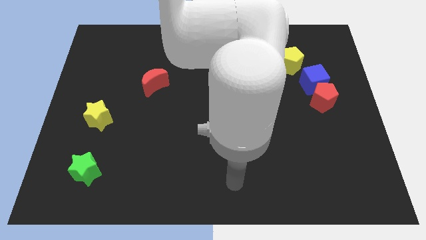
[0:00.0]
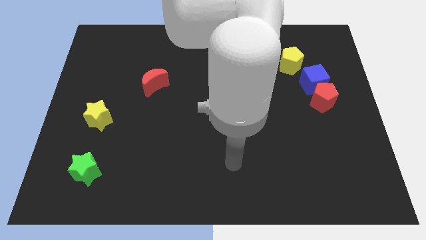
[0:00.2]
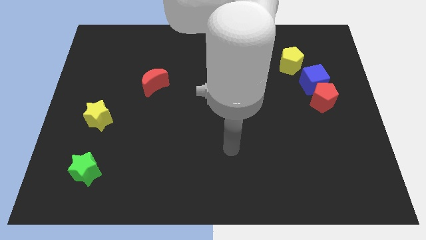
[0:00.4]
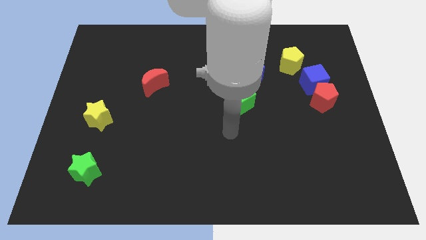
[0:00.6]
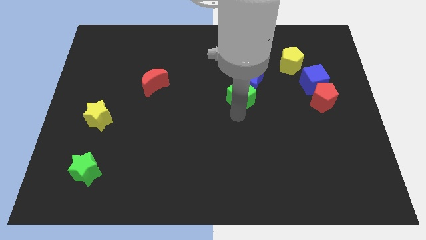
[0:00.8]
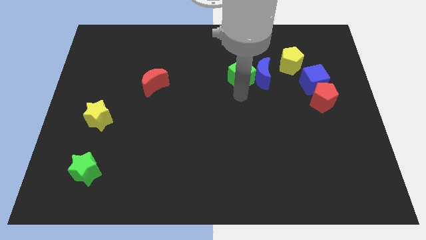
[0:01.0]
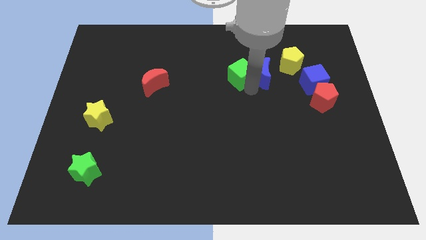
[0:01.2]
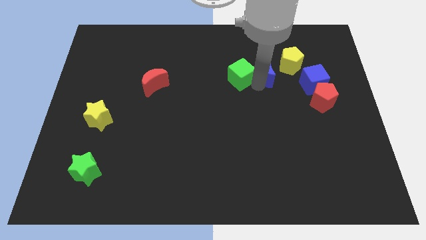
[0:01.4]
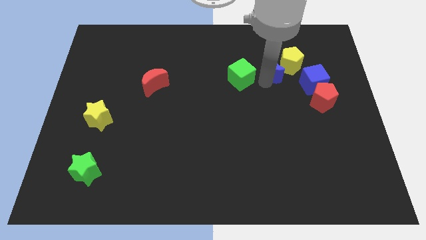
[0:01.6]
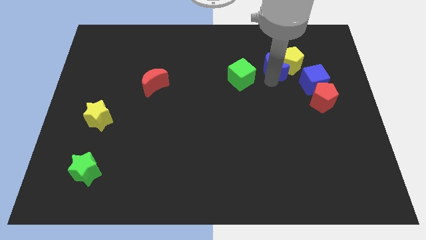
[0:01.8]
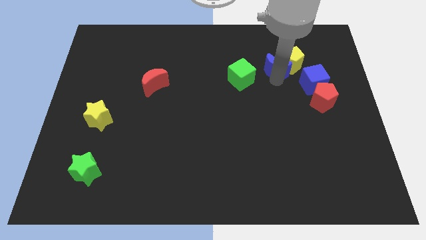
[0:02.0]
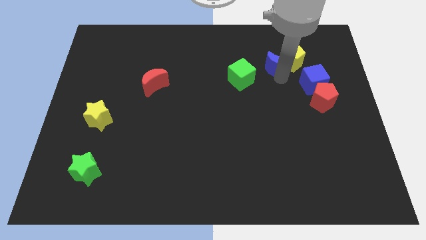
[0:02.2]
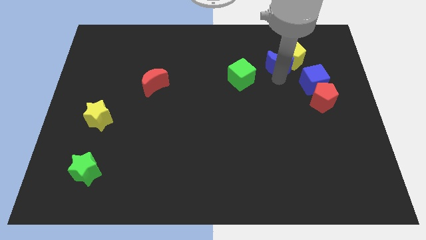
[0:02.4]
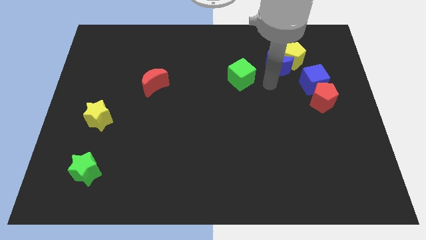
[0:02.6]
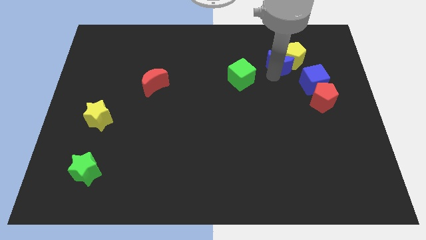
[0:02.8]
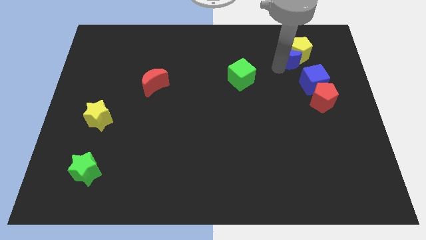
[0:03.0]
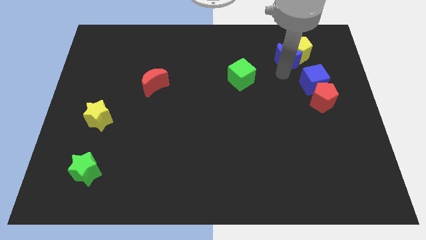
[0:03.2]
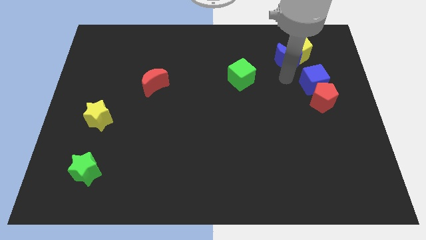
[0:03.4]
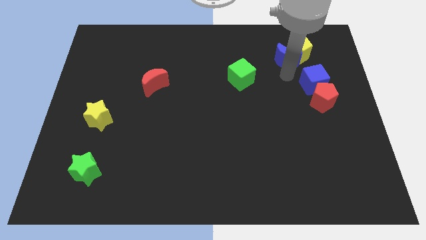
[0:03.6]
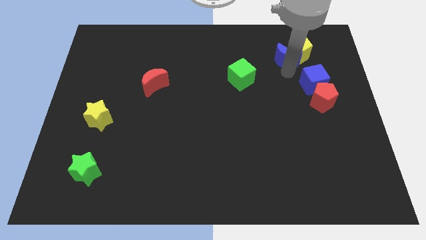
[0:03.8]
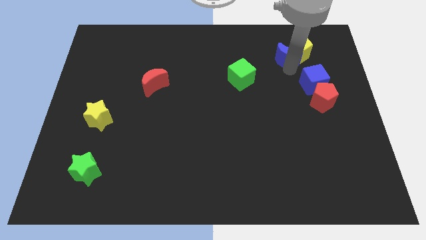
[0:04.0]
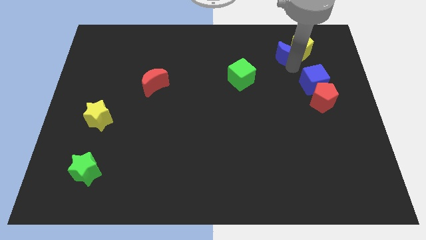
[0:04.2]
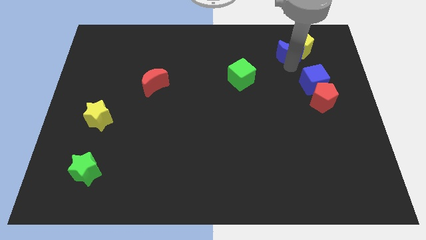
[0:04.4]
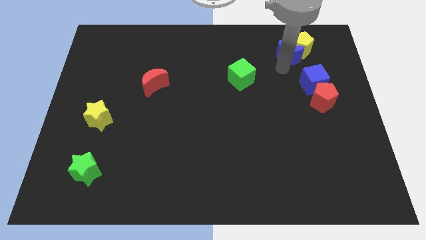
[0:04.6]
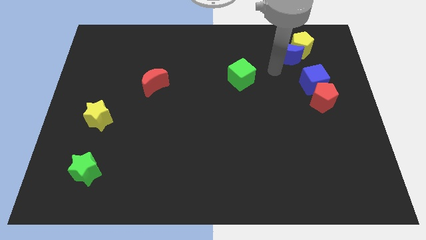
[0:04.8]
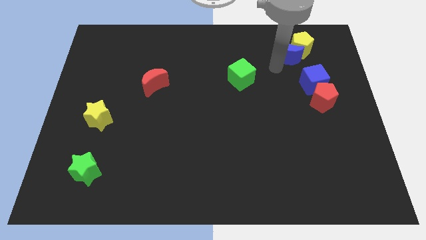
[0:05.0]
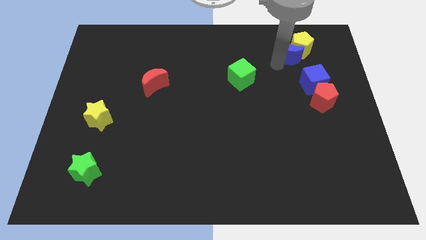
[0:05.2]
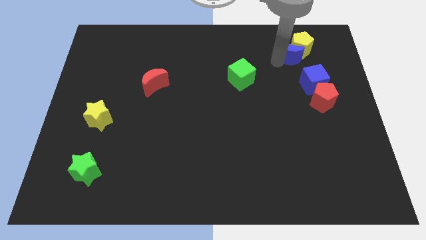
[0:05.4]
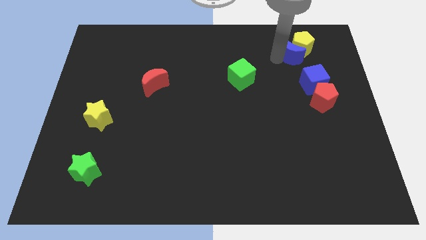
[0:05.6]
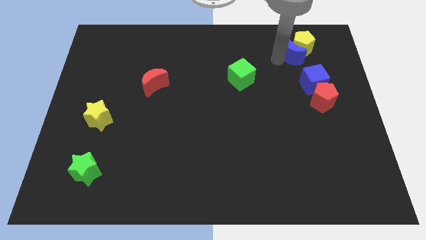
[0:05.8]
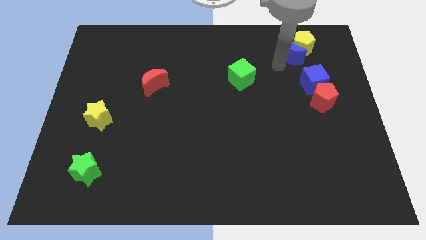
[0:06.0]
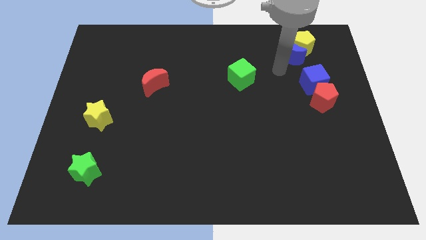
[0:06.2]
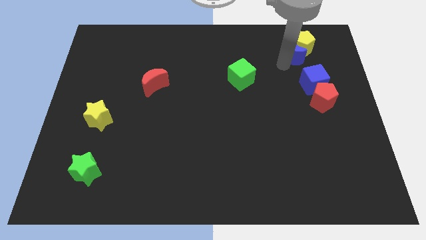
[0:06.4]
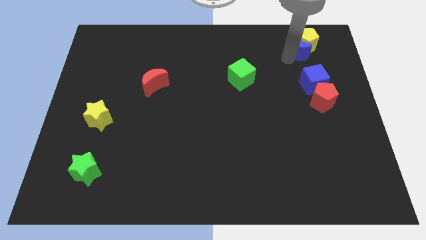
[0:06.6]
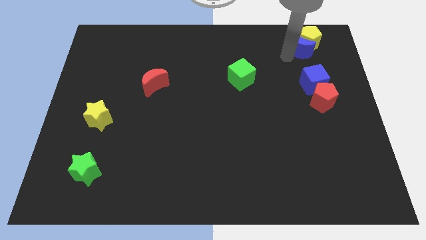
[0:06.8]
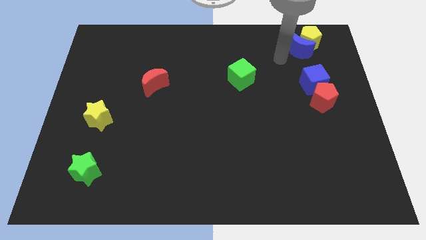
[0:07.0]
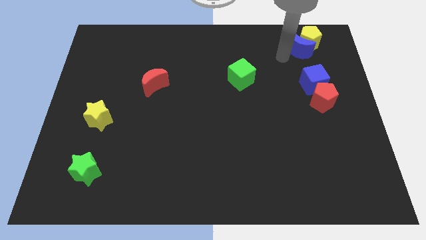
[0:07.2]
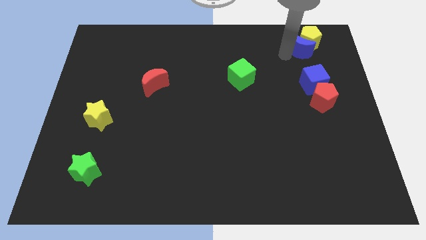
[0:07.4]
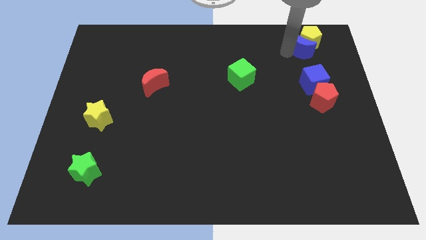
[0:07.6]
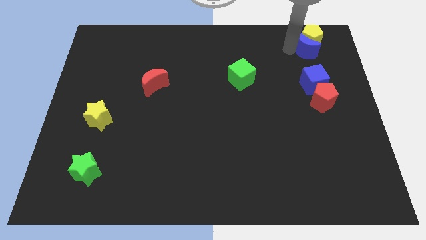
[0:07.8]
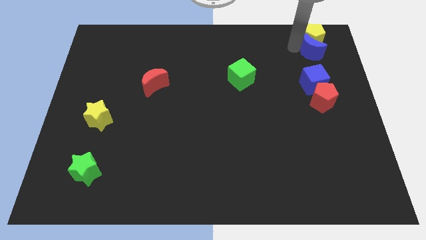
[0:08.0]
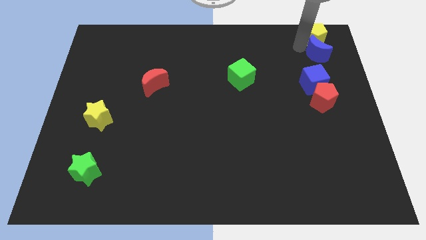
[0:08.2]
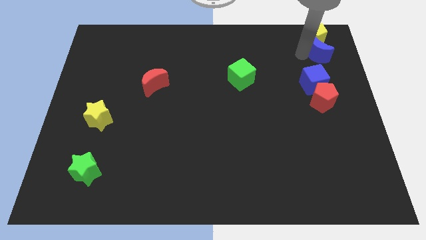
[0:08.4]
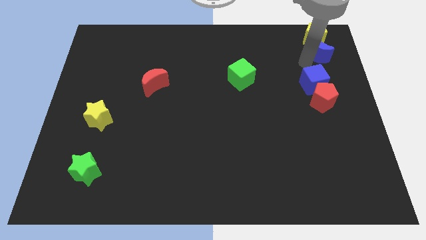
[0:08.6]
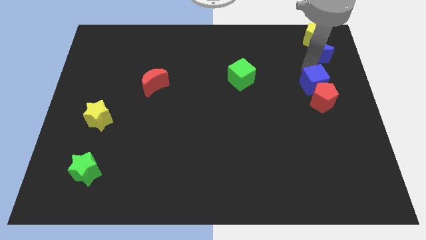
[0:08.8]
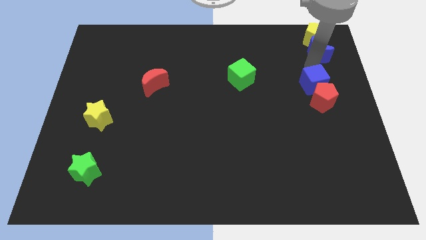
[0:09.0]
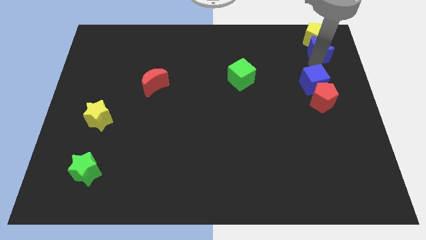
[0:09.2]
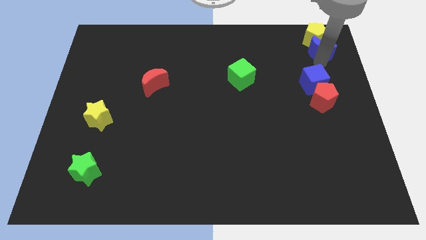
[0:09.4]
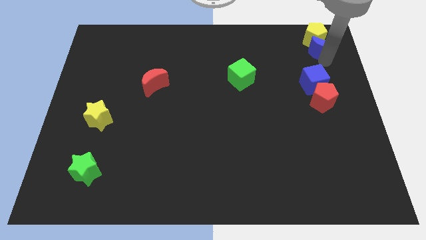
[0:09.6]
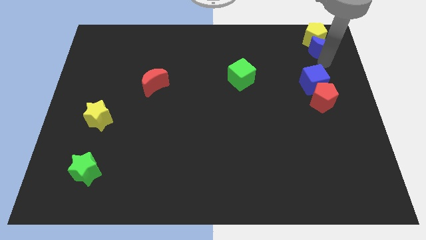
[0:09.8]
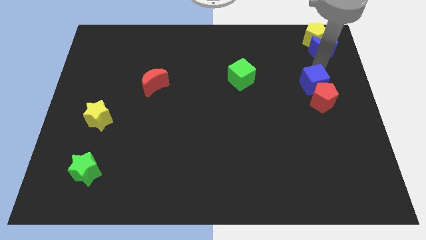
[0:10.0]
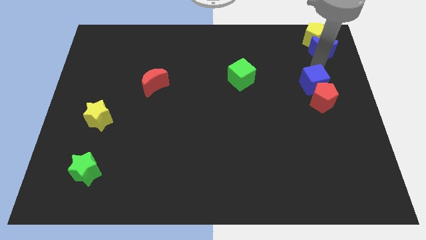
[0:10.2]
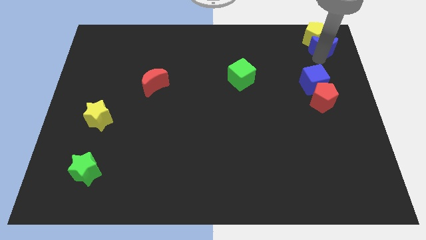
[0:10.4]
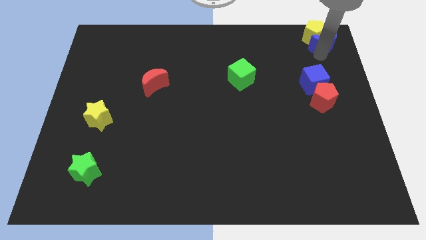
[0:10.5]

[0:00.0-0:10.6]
slide the blue moon to the top right of the board

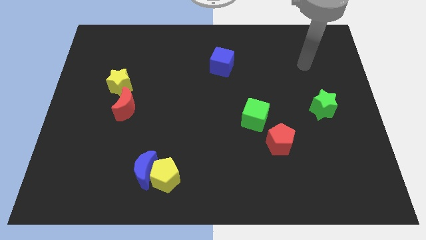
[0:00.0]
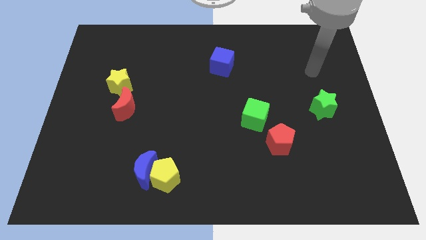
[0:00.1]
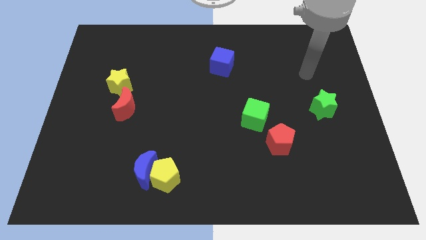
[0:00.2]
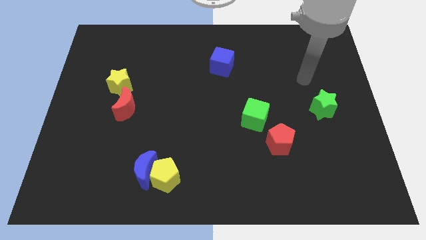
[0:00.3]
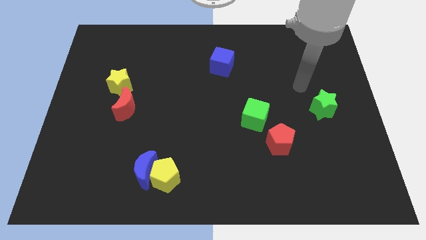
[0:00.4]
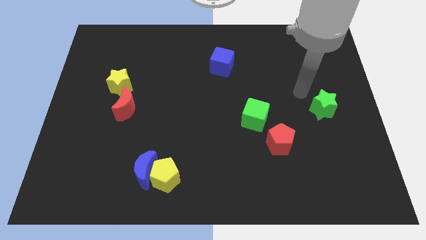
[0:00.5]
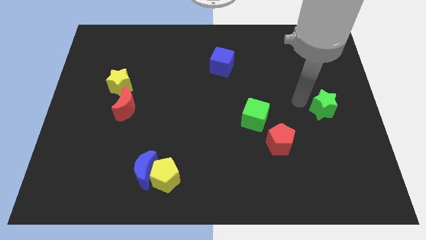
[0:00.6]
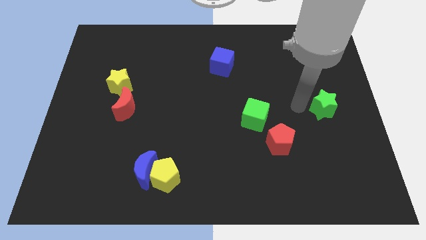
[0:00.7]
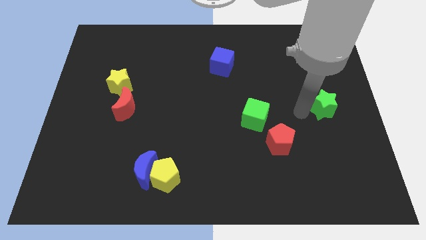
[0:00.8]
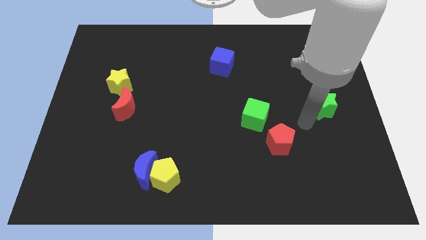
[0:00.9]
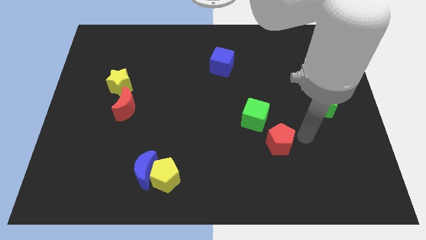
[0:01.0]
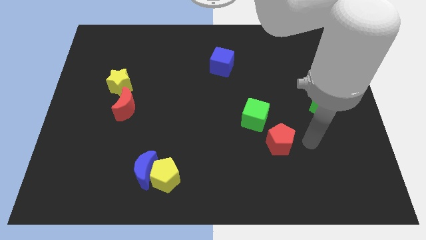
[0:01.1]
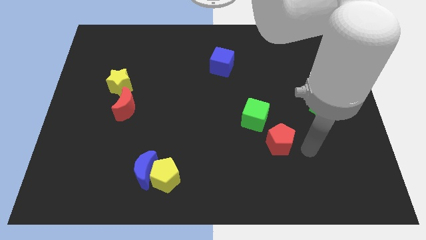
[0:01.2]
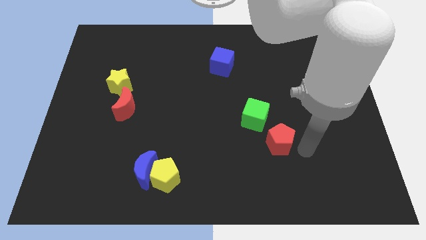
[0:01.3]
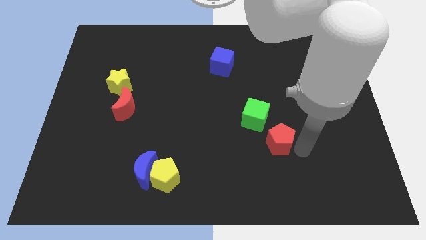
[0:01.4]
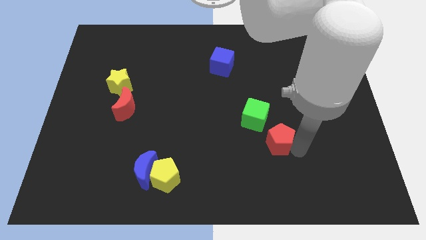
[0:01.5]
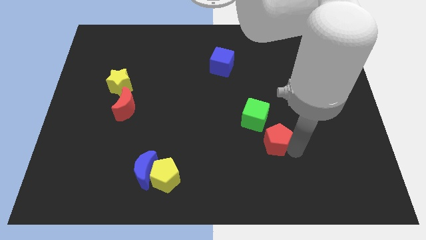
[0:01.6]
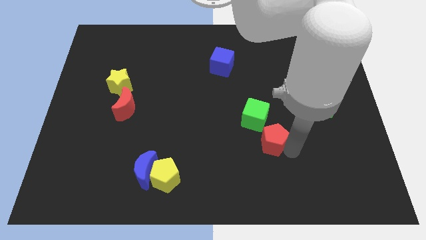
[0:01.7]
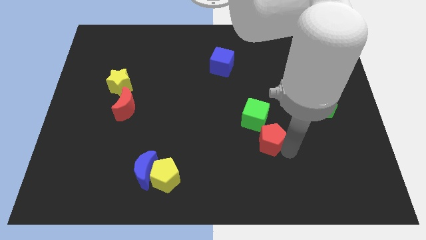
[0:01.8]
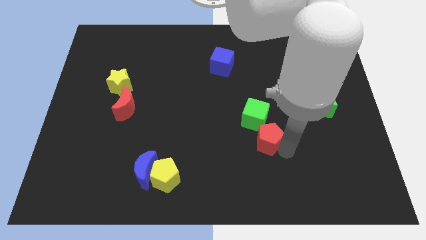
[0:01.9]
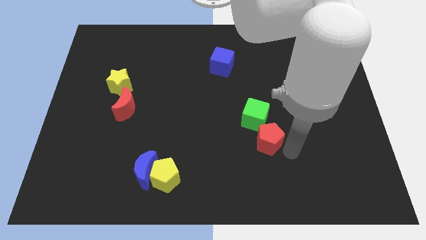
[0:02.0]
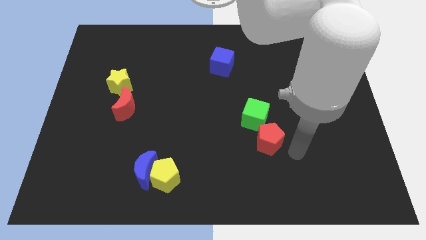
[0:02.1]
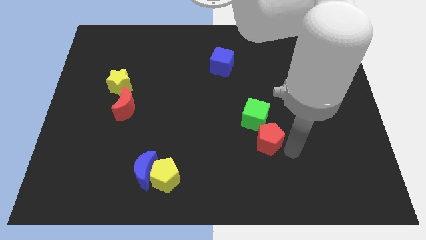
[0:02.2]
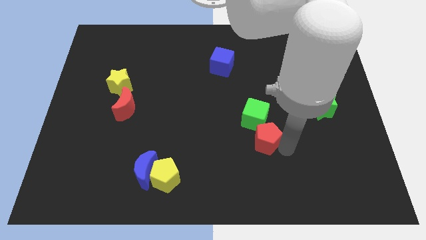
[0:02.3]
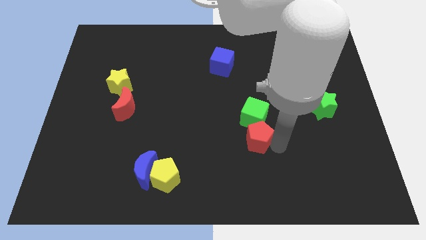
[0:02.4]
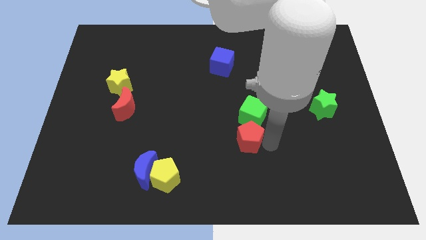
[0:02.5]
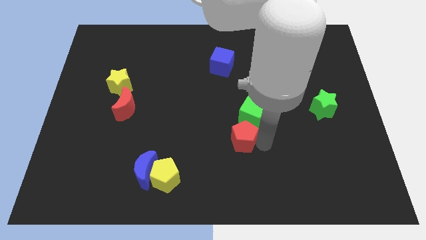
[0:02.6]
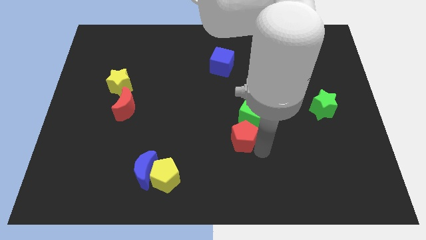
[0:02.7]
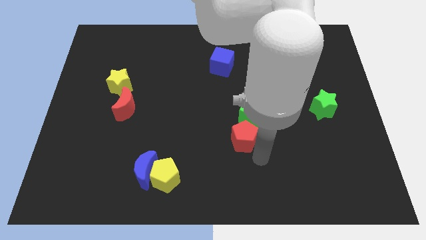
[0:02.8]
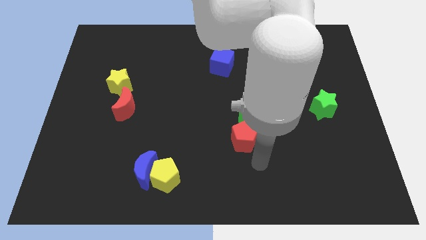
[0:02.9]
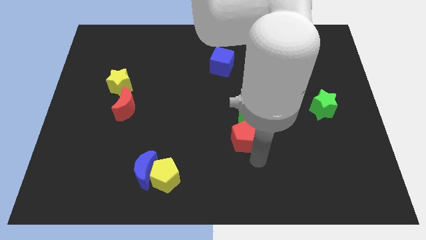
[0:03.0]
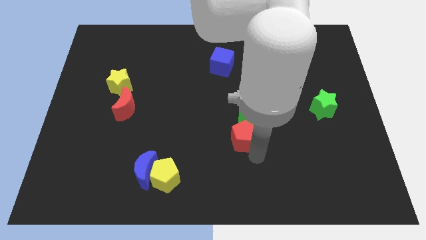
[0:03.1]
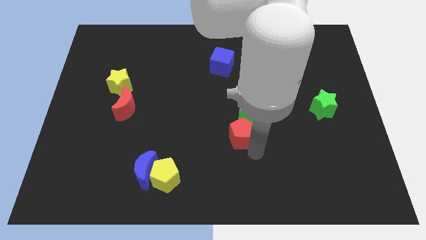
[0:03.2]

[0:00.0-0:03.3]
push the red pentagon to the center
